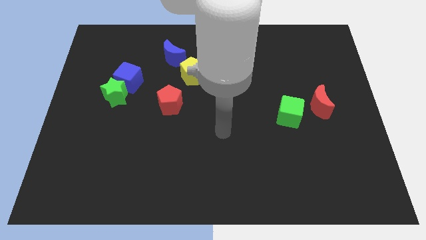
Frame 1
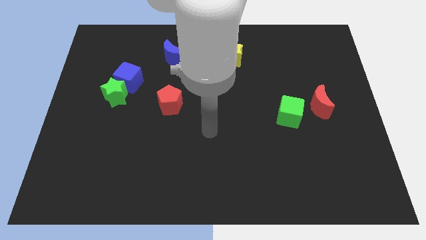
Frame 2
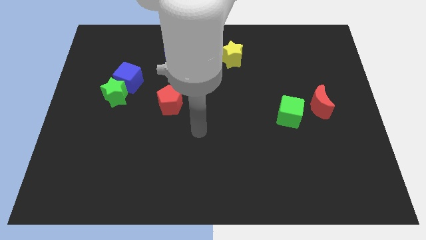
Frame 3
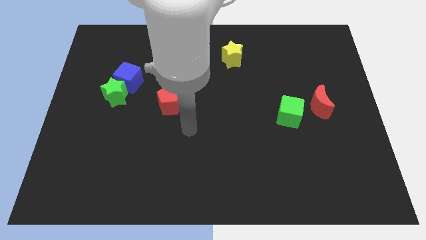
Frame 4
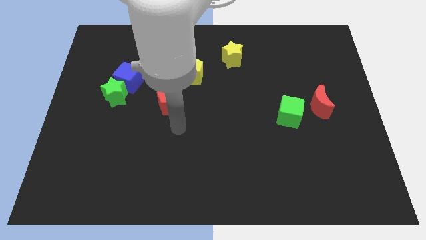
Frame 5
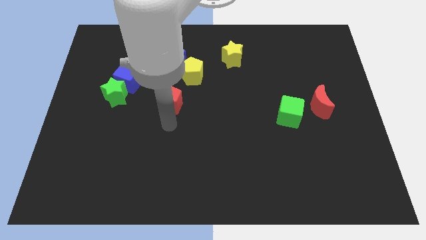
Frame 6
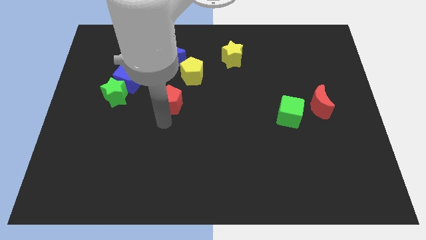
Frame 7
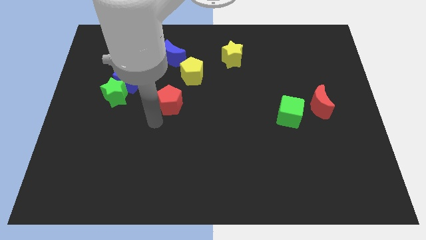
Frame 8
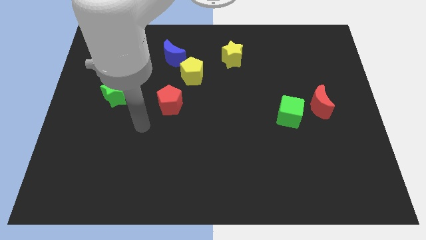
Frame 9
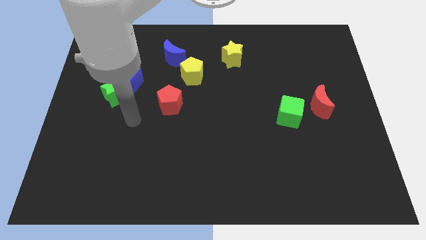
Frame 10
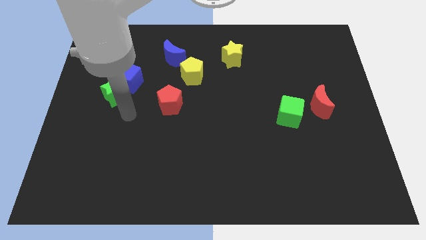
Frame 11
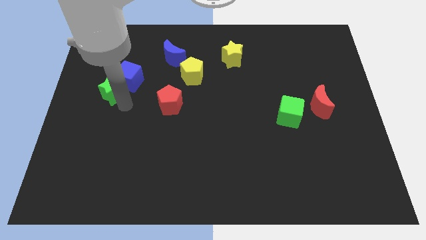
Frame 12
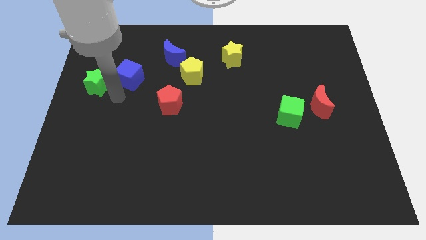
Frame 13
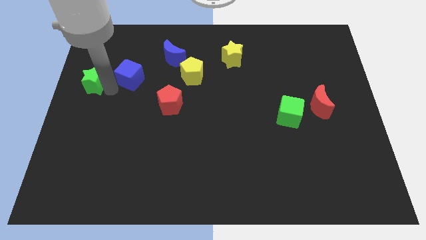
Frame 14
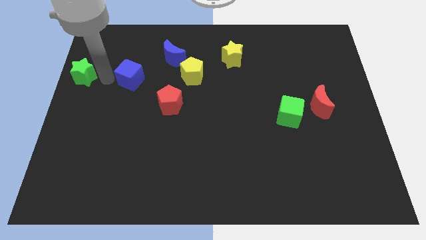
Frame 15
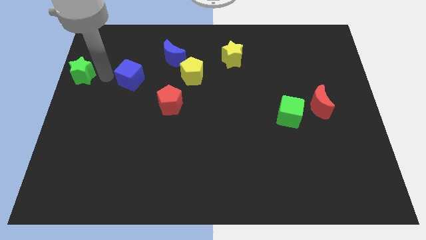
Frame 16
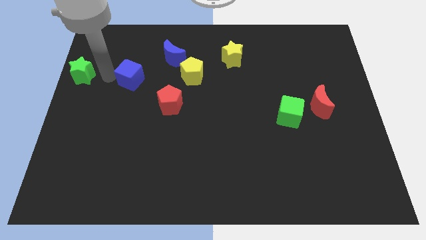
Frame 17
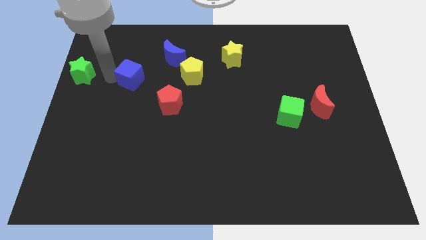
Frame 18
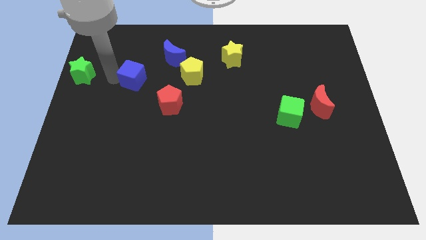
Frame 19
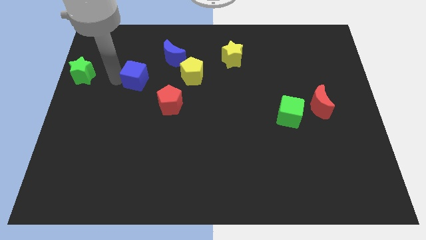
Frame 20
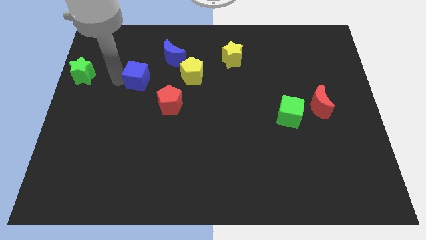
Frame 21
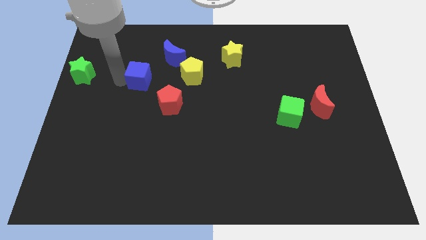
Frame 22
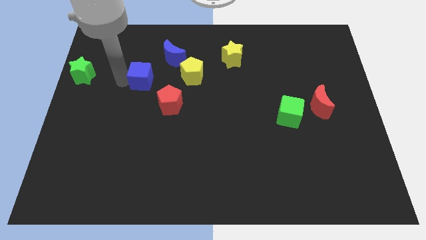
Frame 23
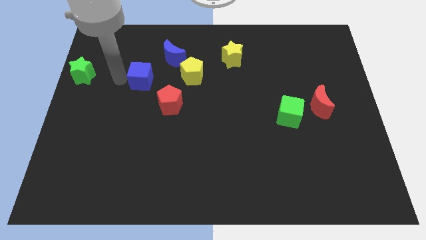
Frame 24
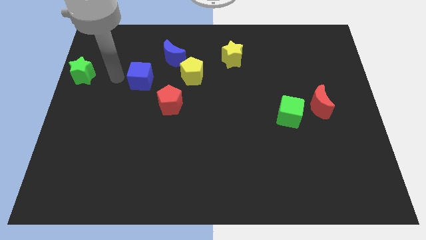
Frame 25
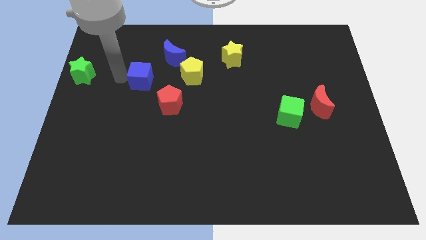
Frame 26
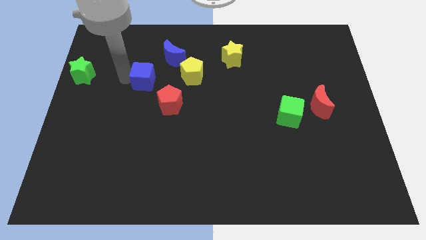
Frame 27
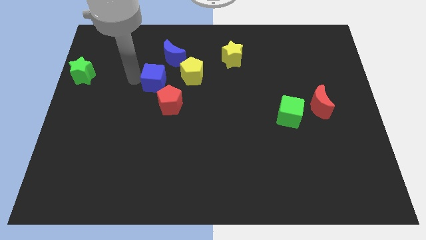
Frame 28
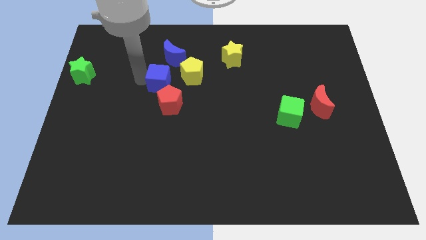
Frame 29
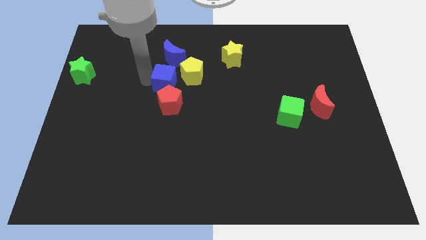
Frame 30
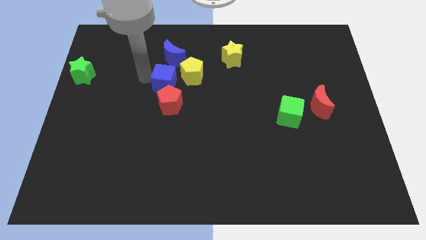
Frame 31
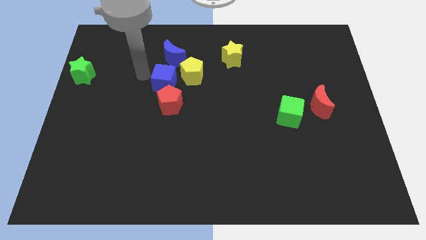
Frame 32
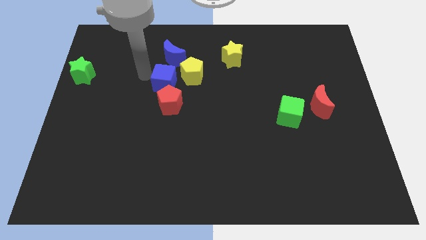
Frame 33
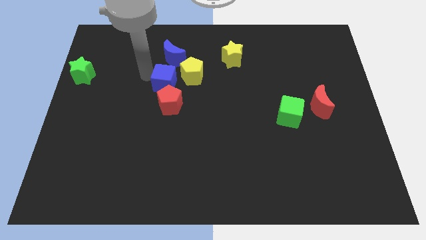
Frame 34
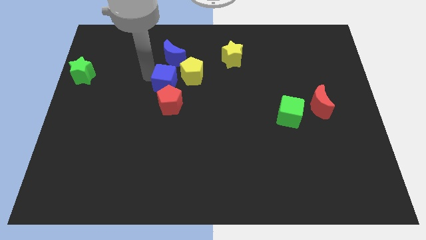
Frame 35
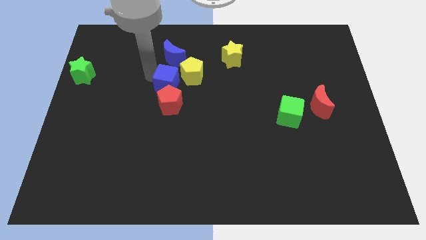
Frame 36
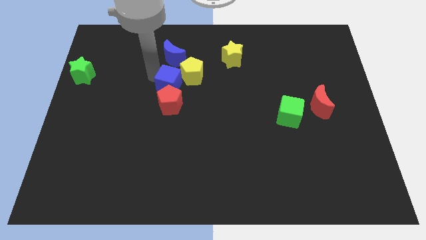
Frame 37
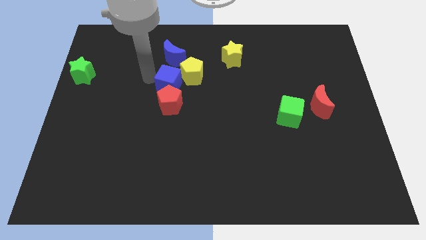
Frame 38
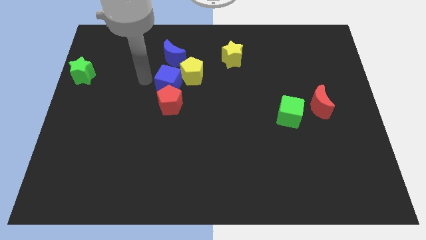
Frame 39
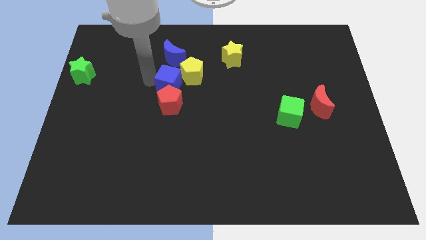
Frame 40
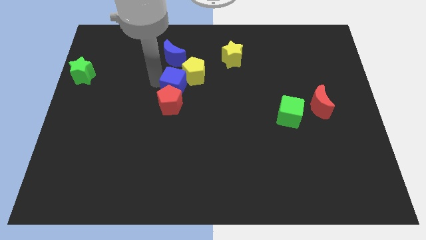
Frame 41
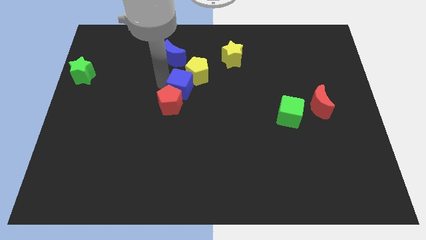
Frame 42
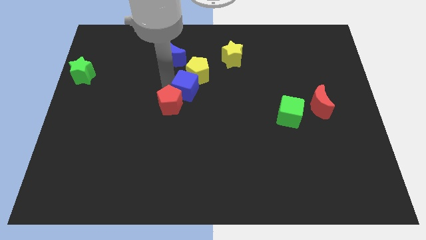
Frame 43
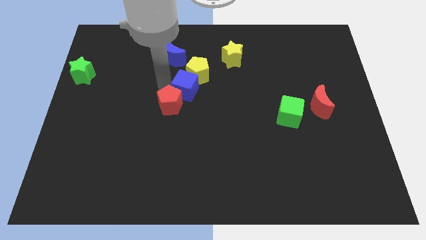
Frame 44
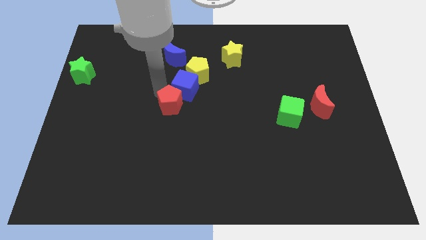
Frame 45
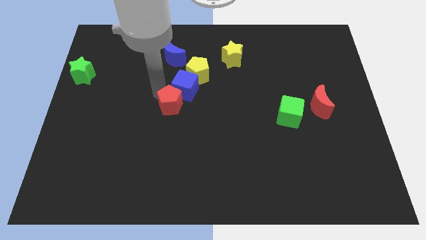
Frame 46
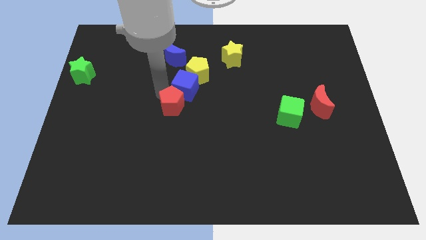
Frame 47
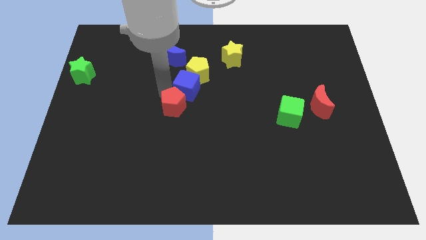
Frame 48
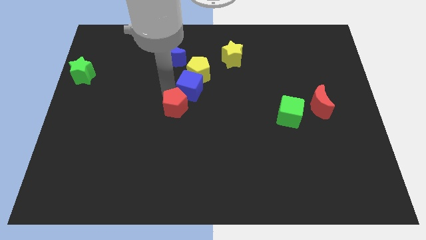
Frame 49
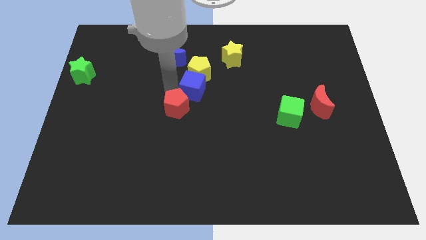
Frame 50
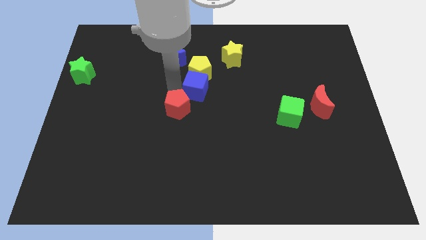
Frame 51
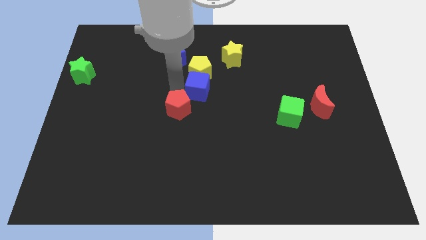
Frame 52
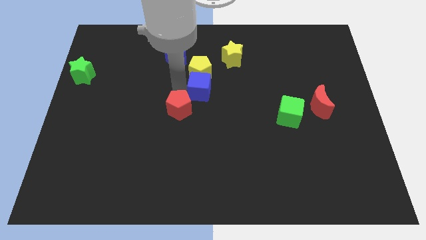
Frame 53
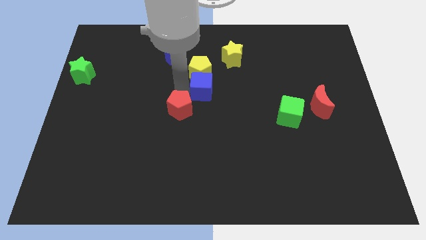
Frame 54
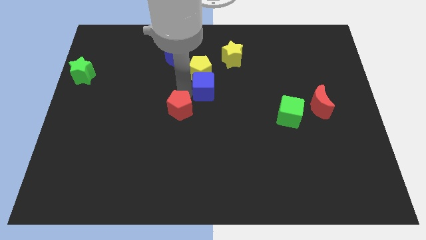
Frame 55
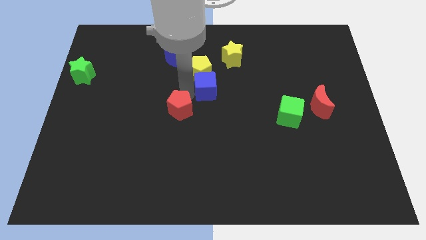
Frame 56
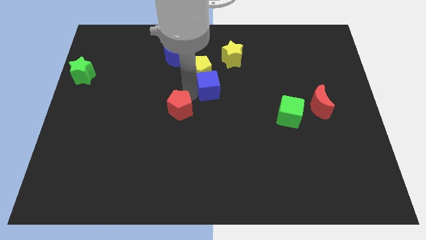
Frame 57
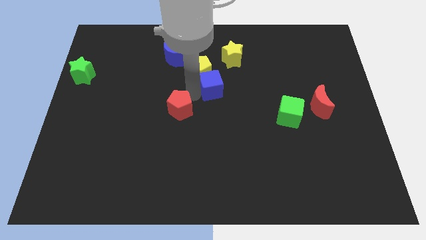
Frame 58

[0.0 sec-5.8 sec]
push the blue cube right

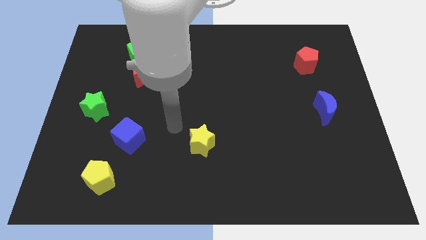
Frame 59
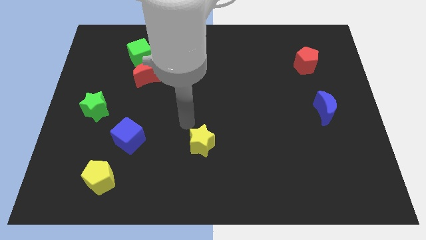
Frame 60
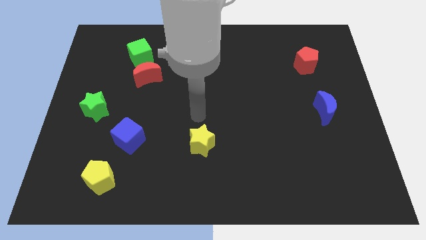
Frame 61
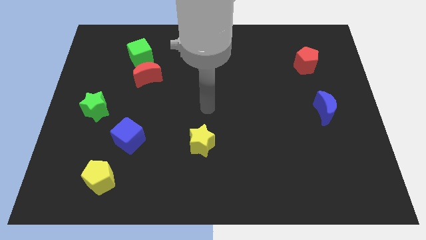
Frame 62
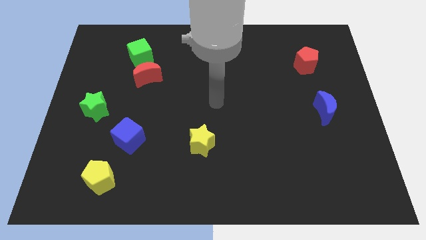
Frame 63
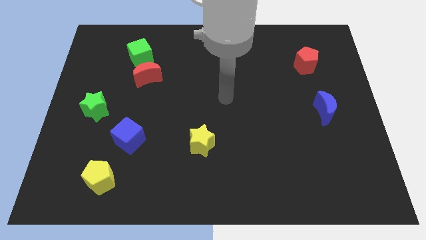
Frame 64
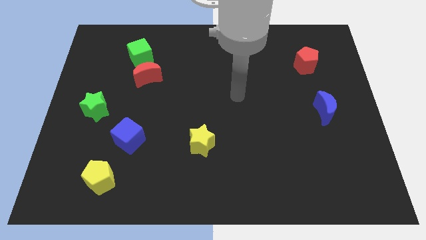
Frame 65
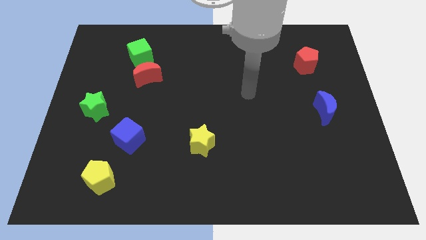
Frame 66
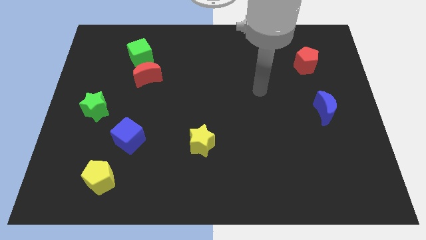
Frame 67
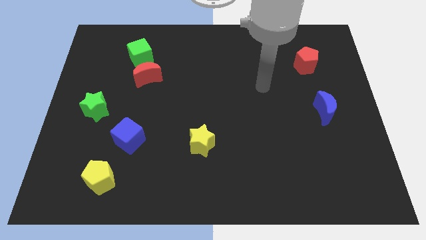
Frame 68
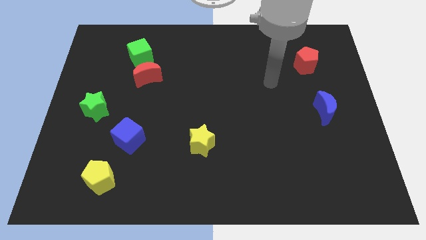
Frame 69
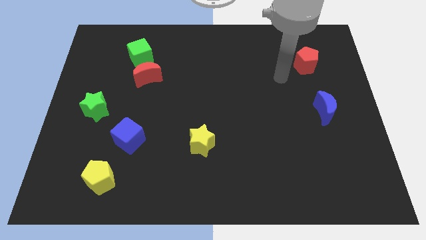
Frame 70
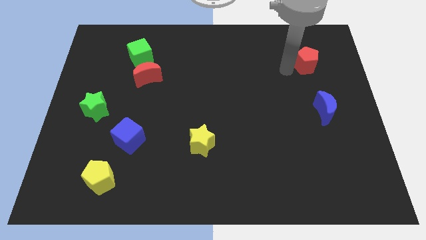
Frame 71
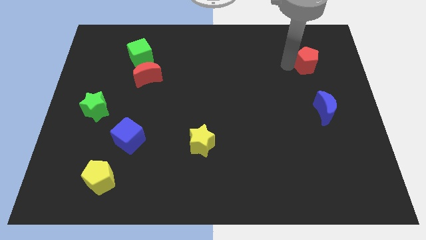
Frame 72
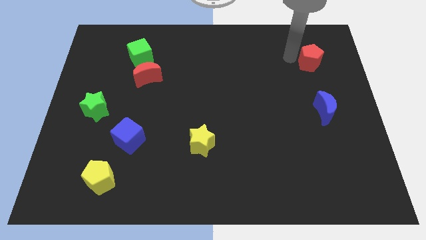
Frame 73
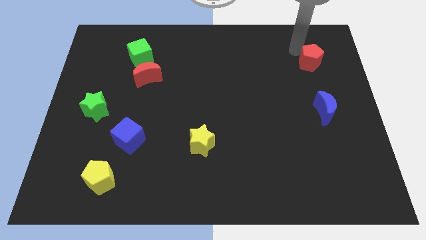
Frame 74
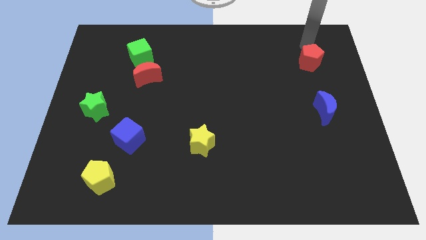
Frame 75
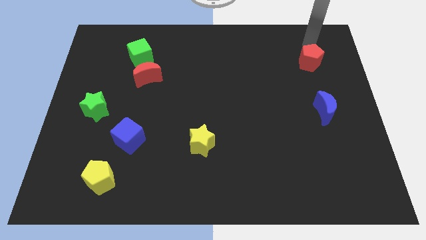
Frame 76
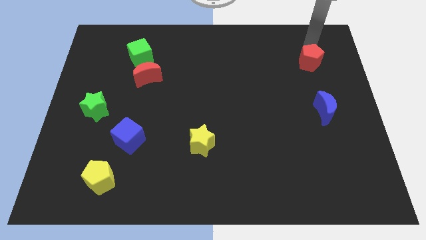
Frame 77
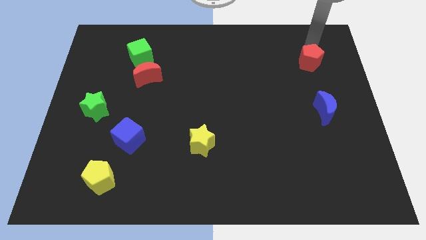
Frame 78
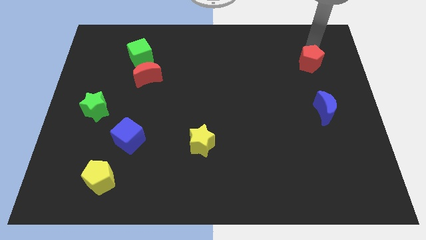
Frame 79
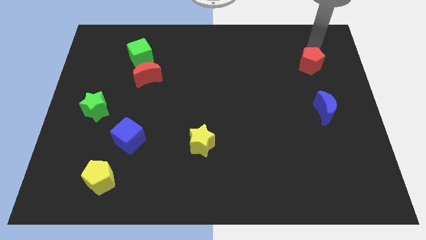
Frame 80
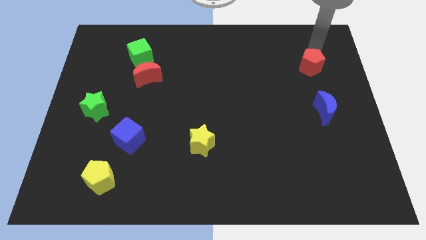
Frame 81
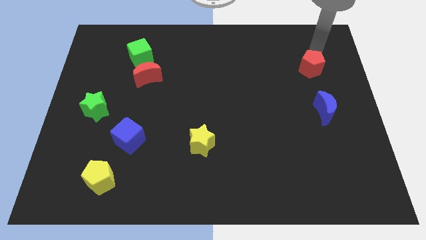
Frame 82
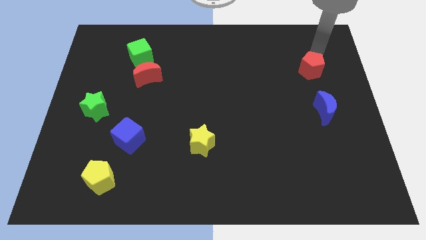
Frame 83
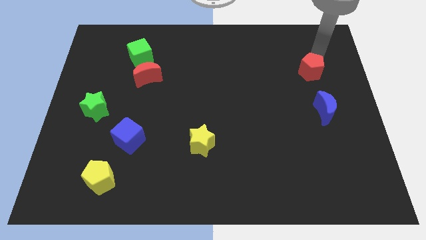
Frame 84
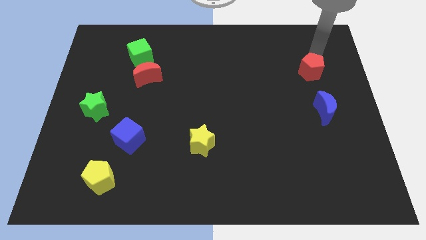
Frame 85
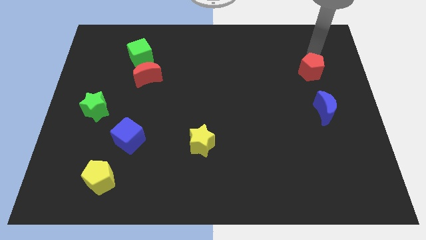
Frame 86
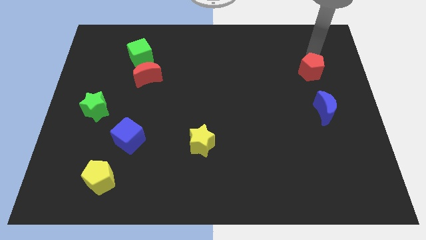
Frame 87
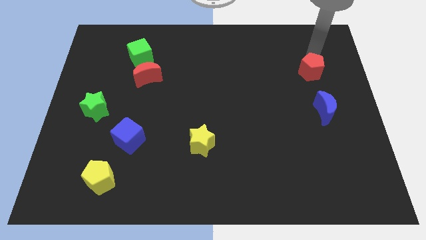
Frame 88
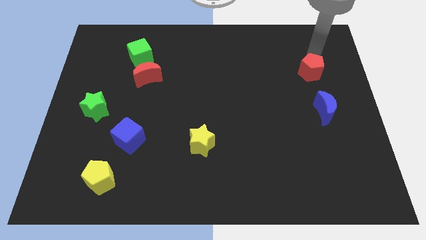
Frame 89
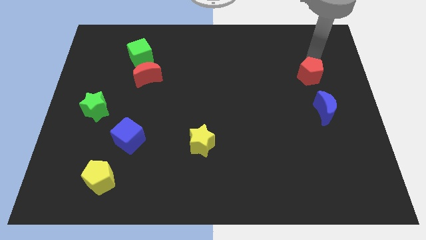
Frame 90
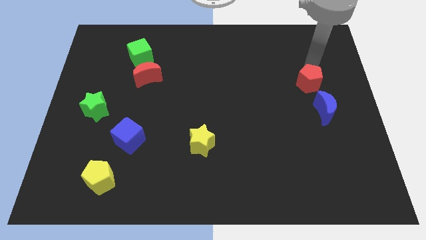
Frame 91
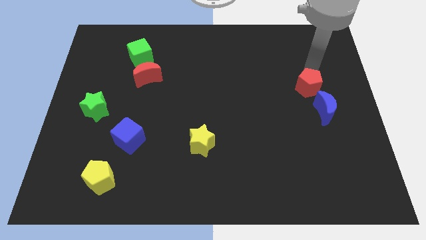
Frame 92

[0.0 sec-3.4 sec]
slightly slide the red pentagon downwards
